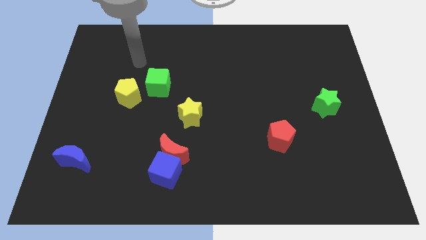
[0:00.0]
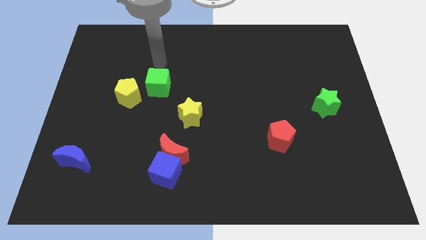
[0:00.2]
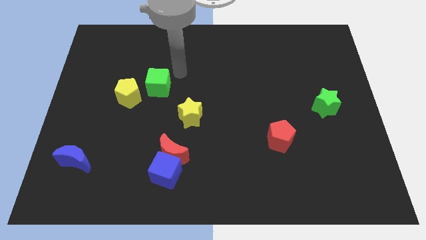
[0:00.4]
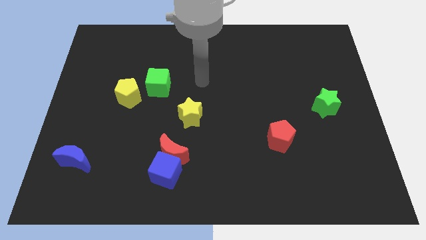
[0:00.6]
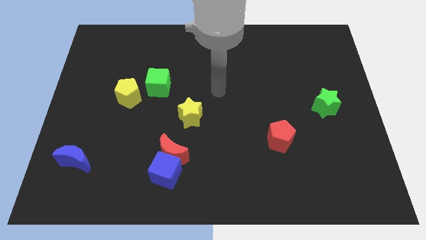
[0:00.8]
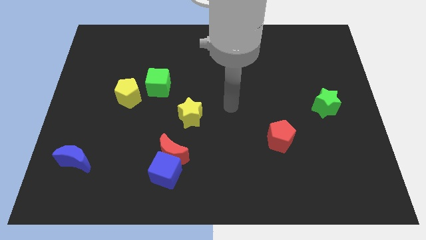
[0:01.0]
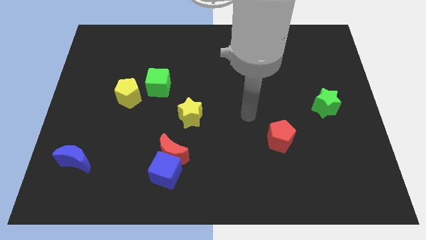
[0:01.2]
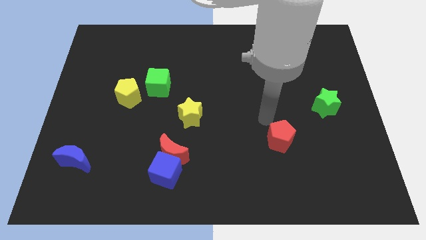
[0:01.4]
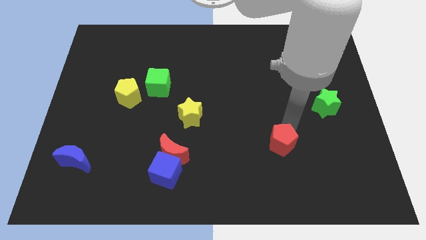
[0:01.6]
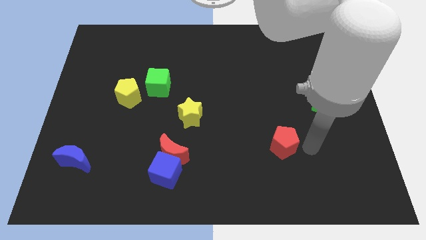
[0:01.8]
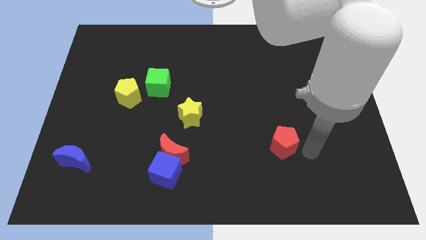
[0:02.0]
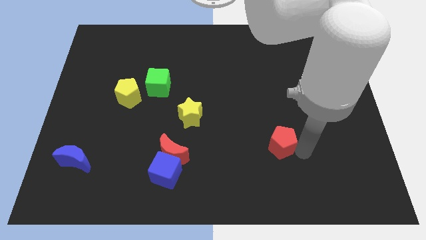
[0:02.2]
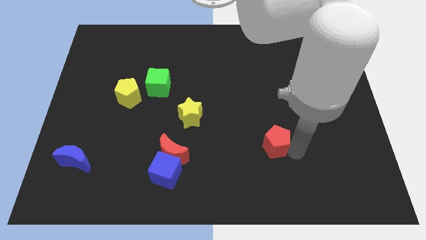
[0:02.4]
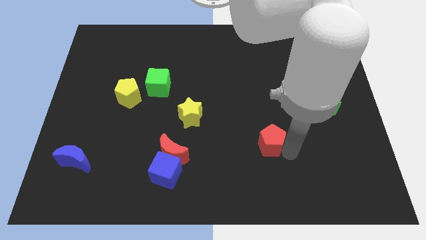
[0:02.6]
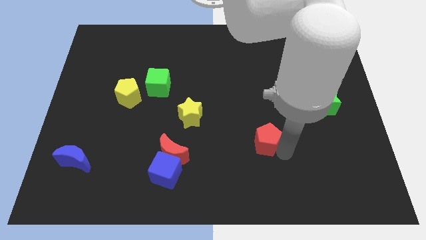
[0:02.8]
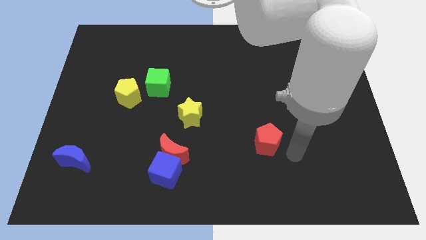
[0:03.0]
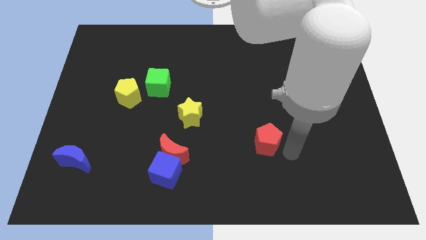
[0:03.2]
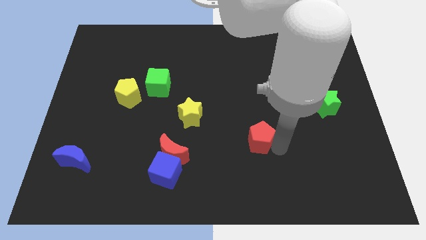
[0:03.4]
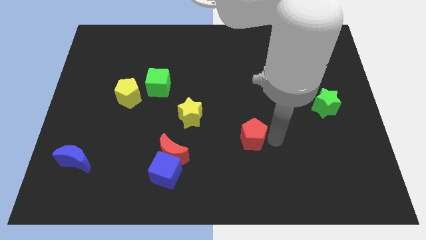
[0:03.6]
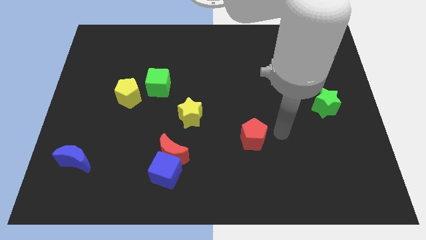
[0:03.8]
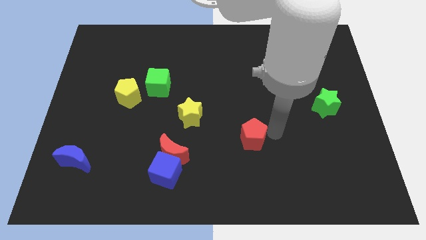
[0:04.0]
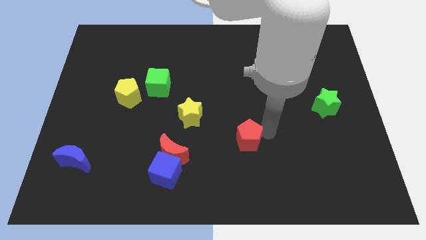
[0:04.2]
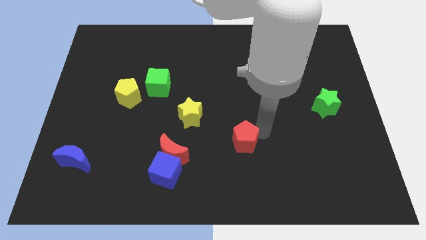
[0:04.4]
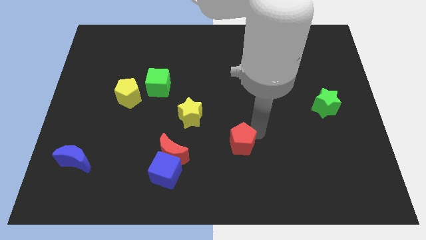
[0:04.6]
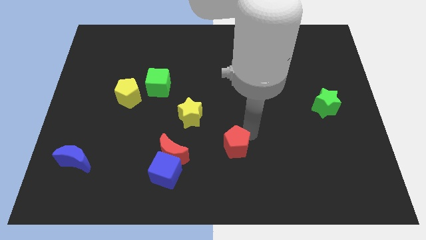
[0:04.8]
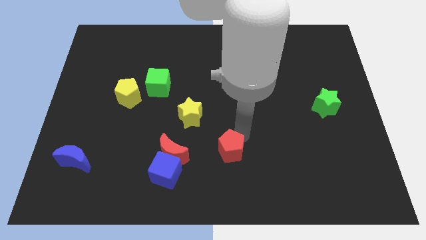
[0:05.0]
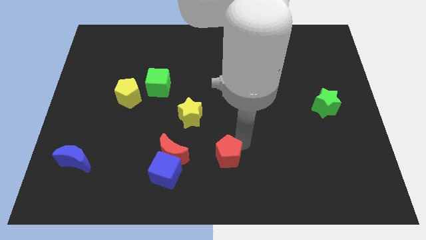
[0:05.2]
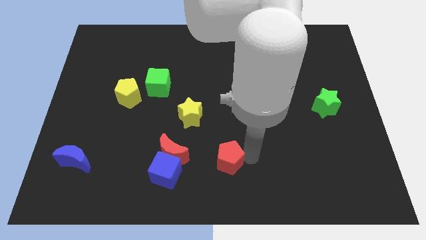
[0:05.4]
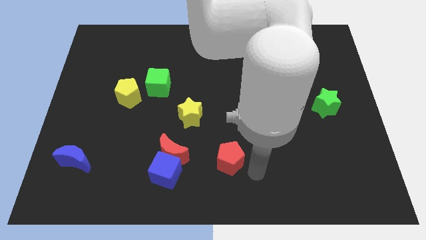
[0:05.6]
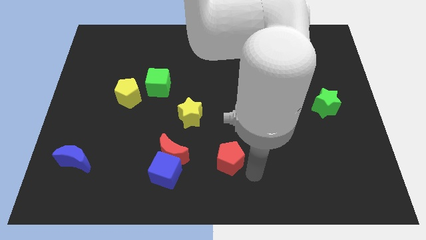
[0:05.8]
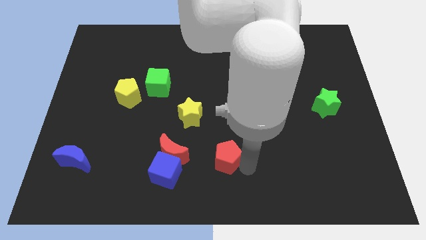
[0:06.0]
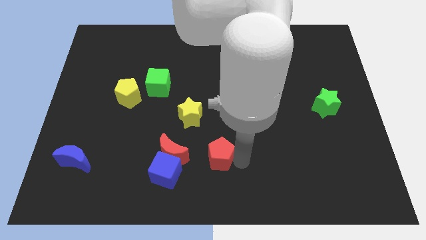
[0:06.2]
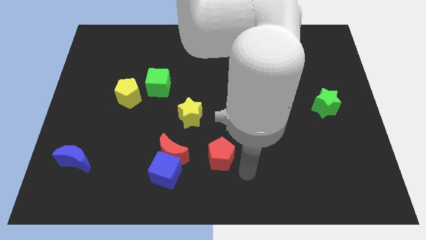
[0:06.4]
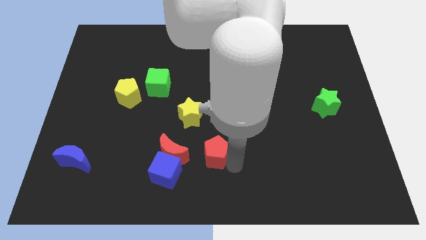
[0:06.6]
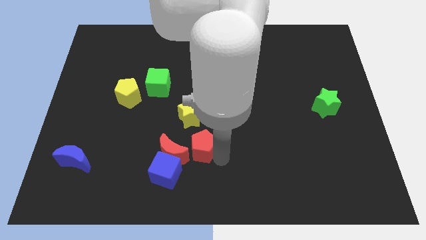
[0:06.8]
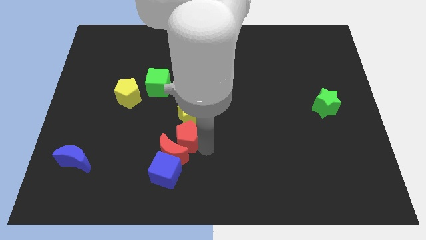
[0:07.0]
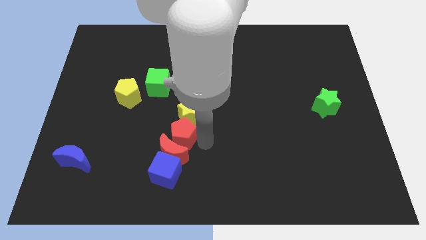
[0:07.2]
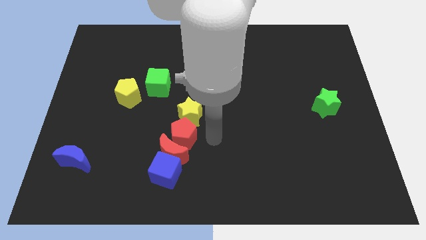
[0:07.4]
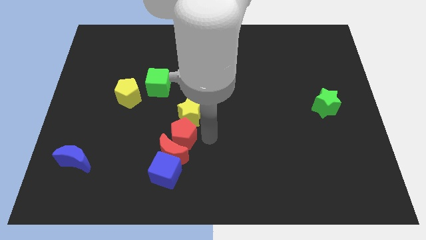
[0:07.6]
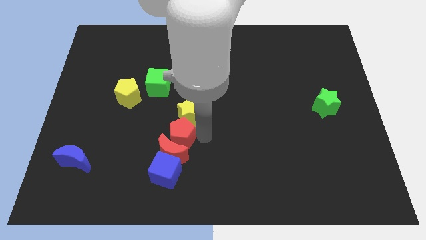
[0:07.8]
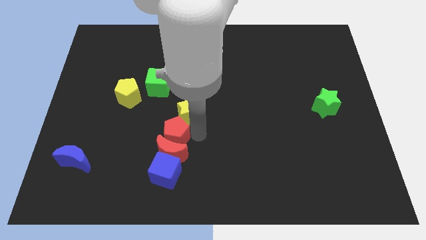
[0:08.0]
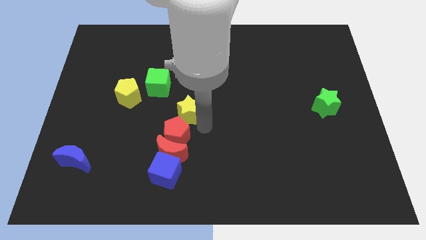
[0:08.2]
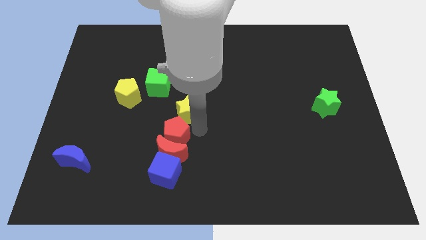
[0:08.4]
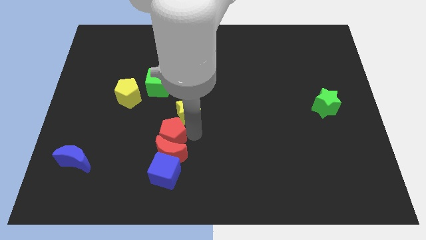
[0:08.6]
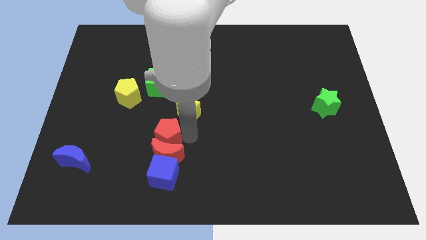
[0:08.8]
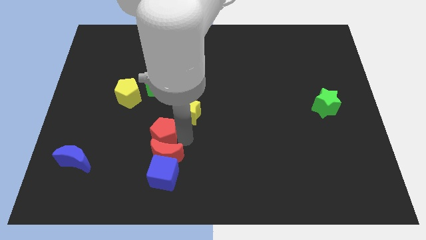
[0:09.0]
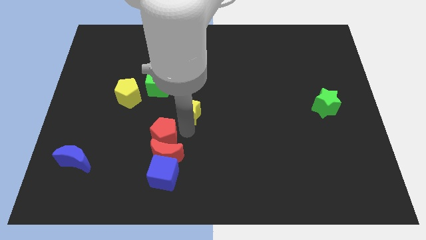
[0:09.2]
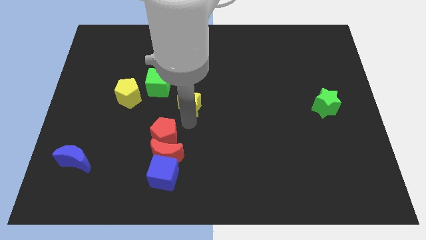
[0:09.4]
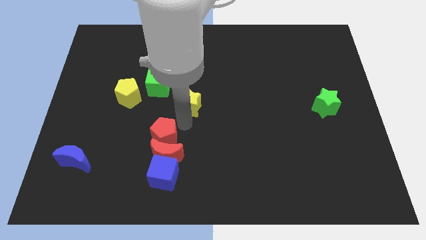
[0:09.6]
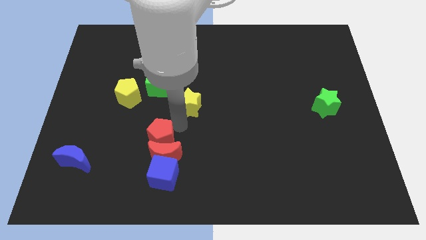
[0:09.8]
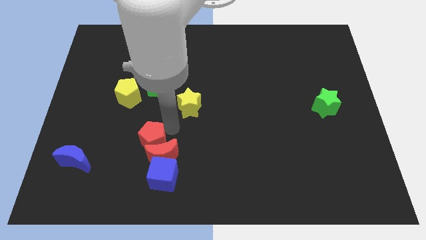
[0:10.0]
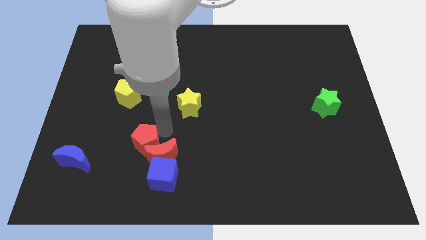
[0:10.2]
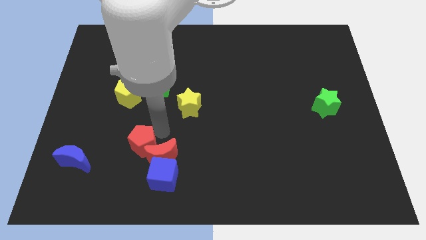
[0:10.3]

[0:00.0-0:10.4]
push the red pentagon to the right side of the blue moon

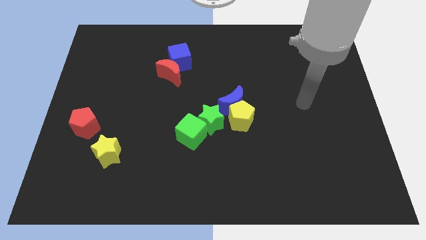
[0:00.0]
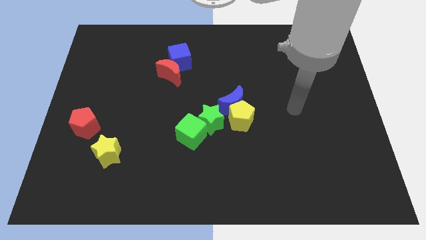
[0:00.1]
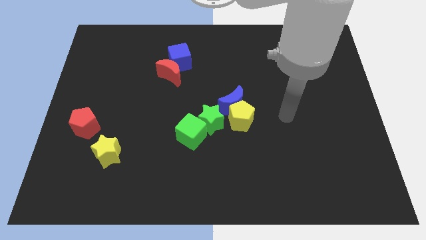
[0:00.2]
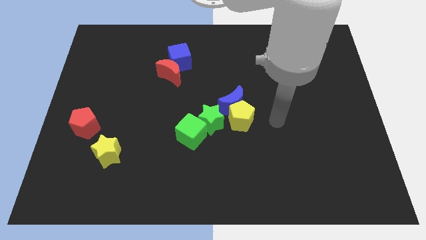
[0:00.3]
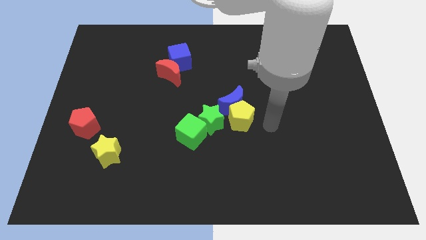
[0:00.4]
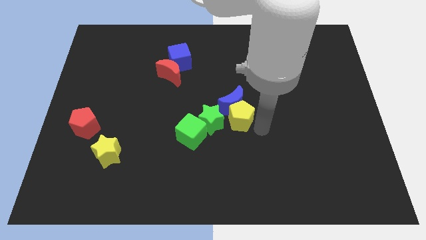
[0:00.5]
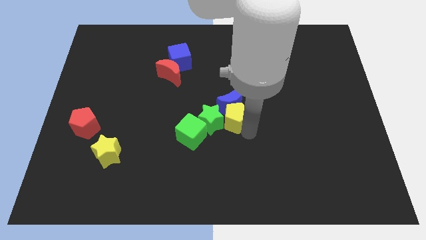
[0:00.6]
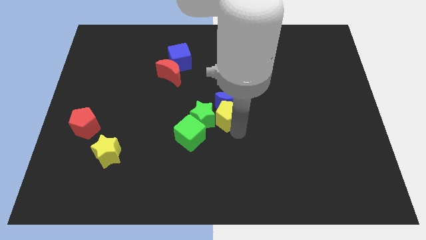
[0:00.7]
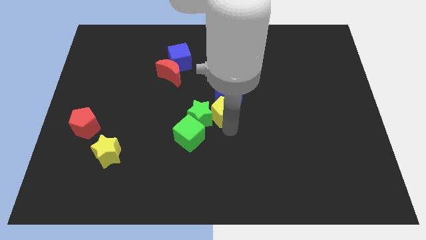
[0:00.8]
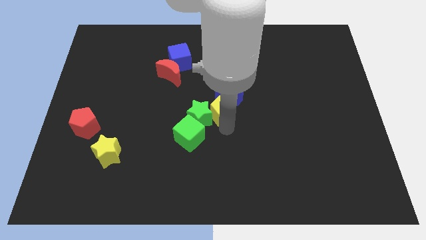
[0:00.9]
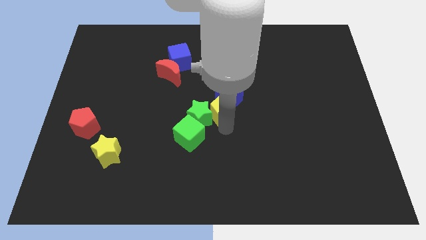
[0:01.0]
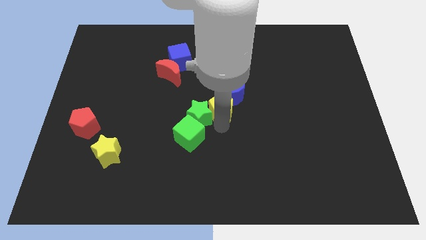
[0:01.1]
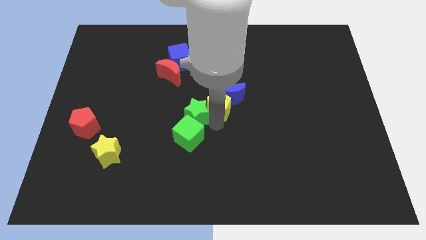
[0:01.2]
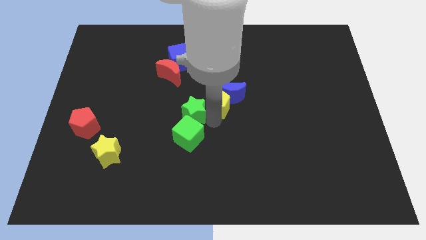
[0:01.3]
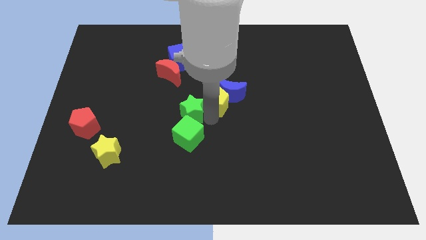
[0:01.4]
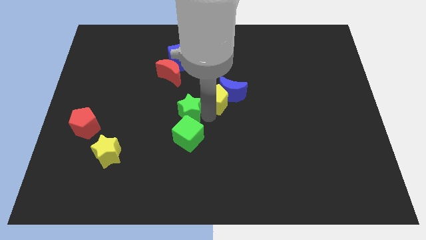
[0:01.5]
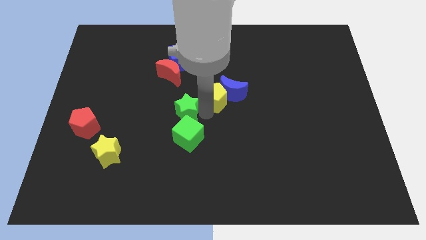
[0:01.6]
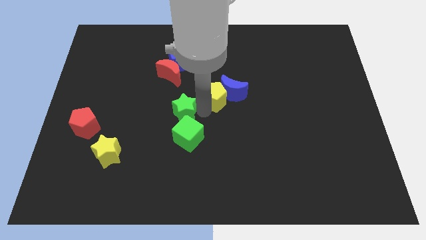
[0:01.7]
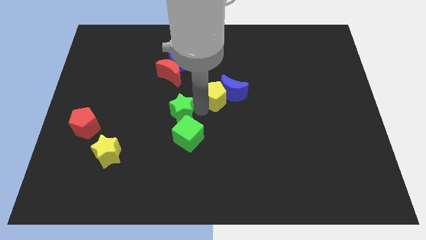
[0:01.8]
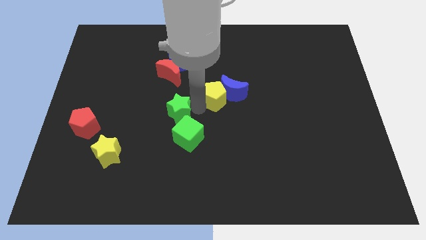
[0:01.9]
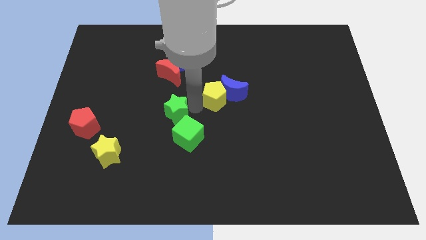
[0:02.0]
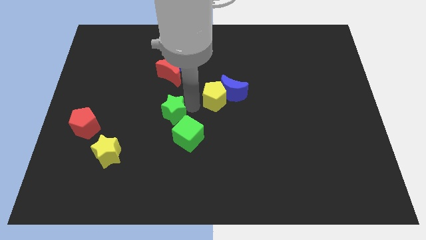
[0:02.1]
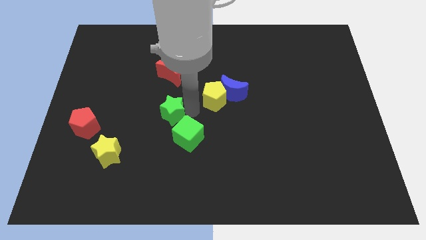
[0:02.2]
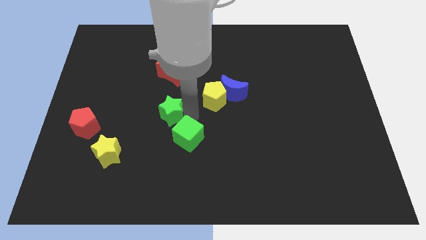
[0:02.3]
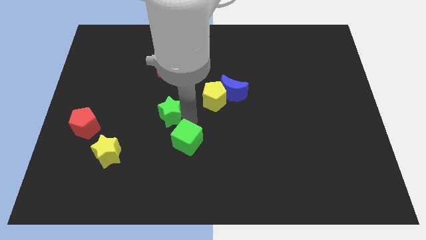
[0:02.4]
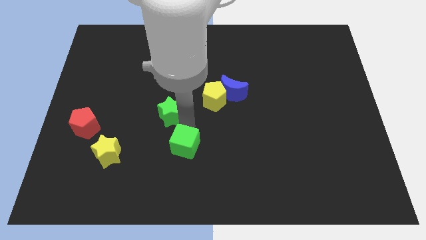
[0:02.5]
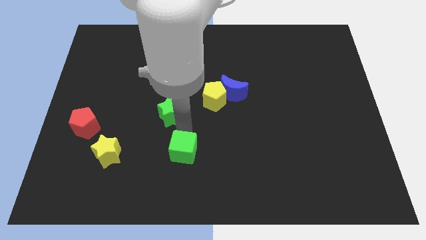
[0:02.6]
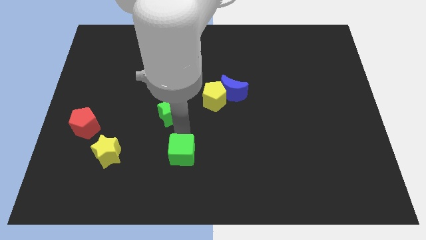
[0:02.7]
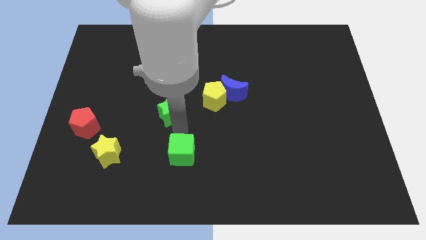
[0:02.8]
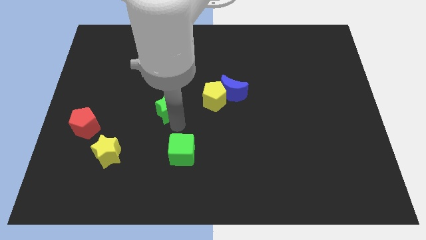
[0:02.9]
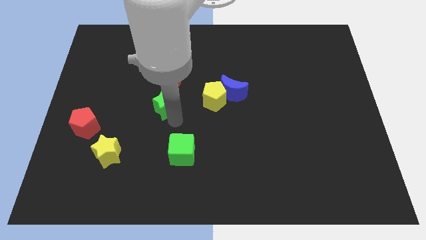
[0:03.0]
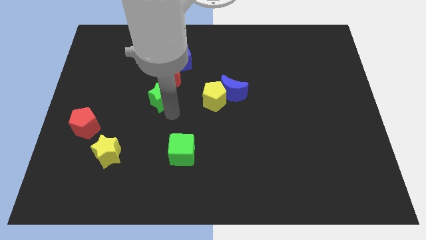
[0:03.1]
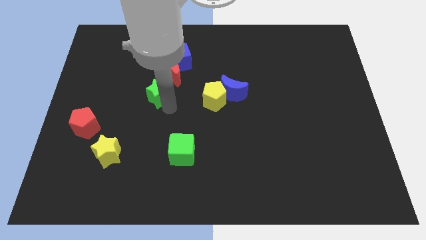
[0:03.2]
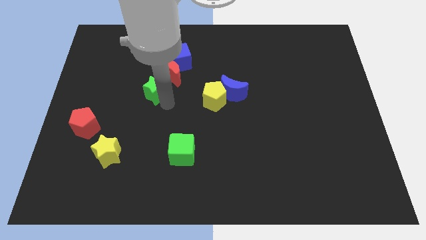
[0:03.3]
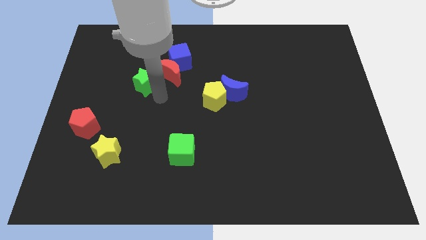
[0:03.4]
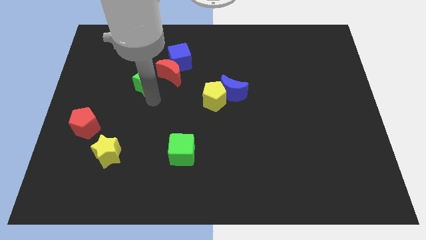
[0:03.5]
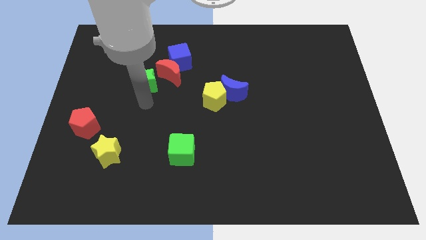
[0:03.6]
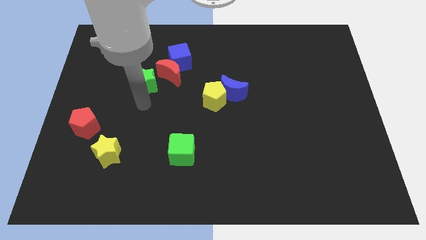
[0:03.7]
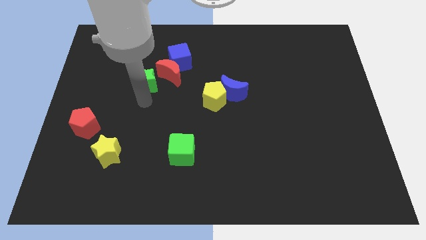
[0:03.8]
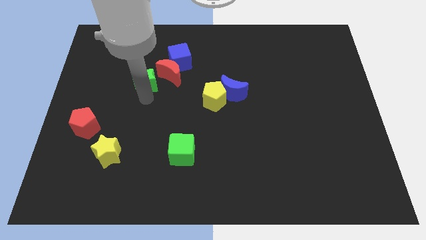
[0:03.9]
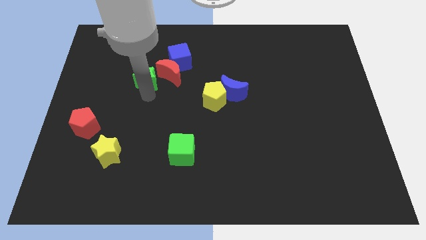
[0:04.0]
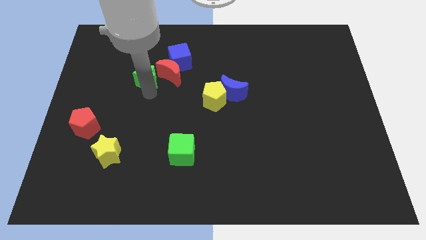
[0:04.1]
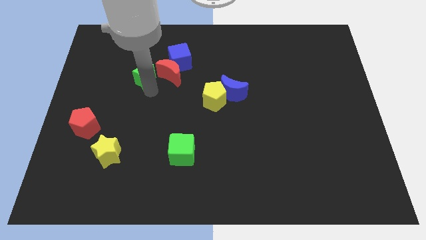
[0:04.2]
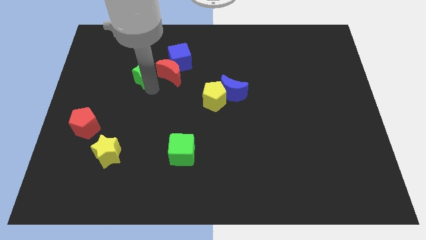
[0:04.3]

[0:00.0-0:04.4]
move the green star to the top left of the red moon
